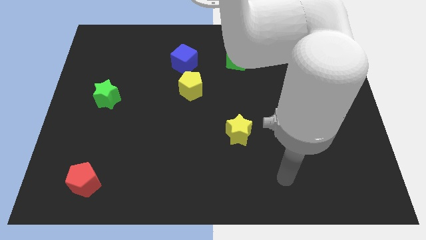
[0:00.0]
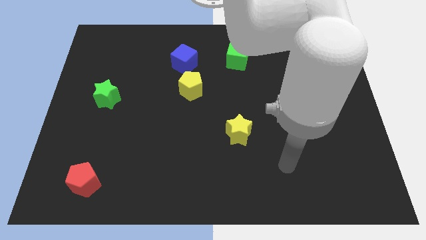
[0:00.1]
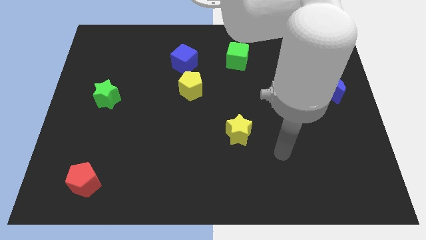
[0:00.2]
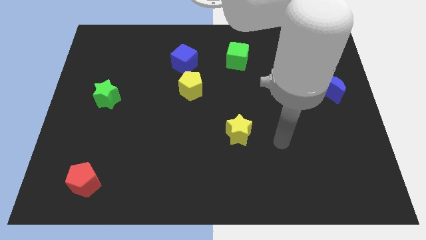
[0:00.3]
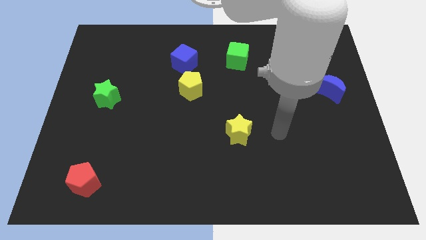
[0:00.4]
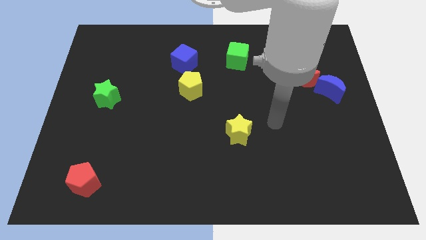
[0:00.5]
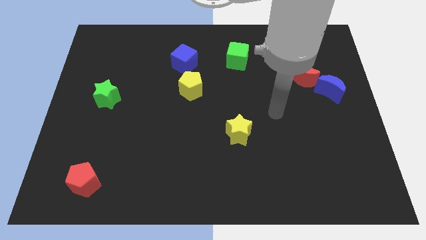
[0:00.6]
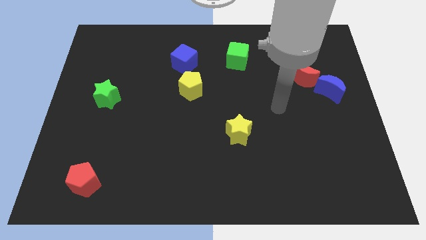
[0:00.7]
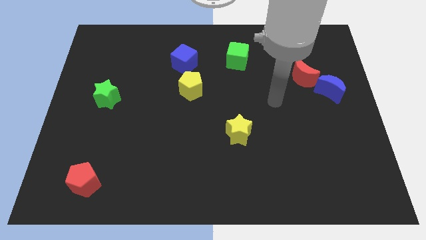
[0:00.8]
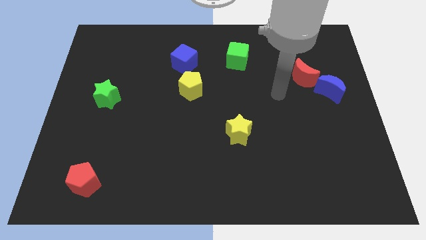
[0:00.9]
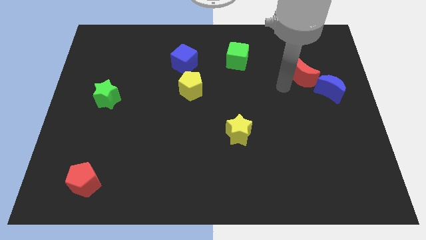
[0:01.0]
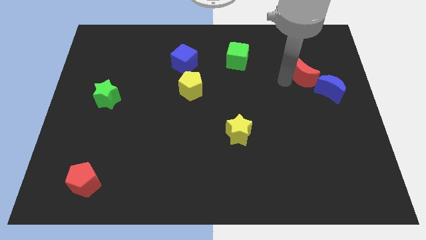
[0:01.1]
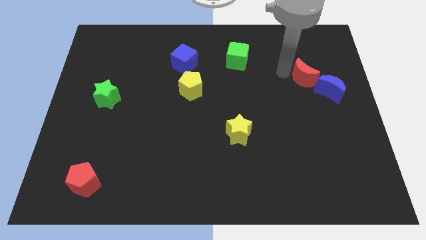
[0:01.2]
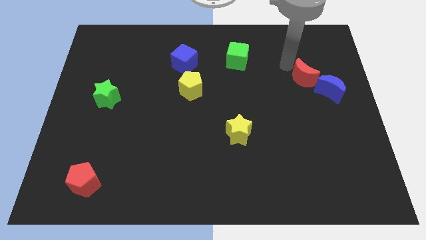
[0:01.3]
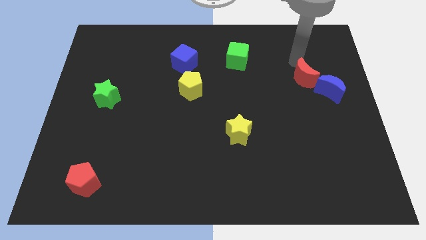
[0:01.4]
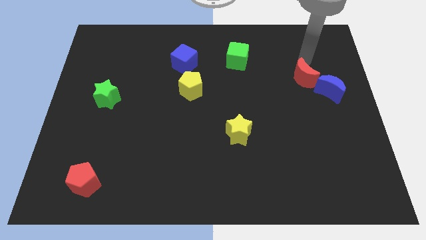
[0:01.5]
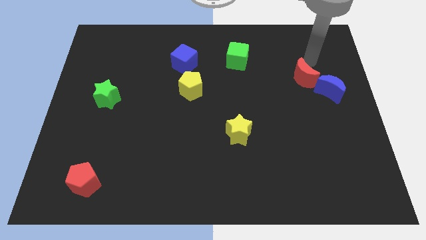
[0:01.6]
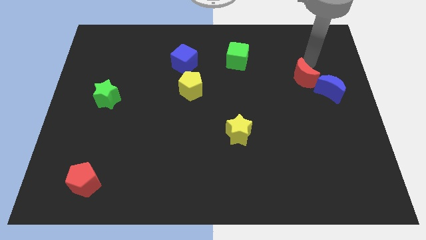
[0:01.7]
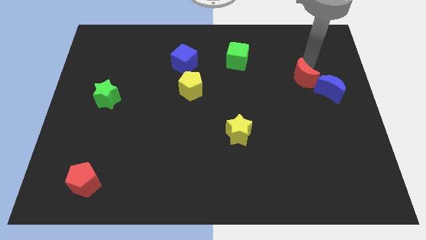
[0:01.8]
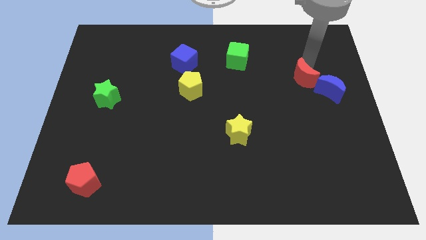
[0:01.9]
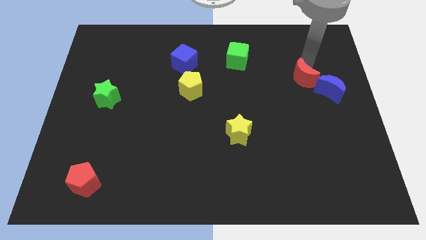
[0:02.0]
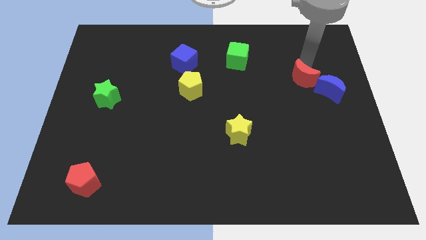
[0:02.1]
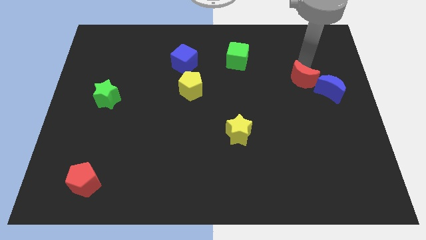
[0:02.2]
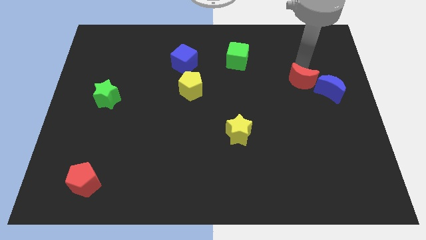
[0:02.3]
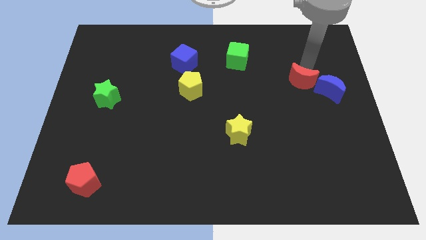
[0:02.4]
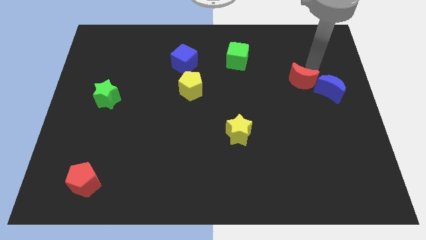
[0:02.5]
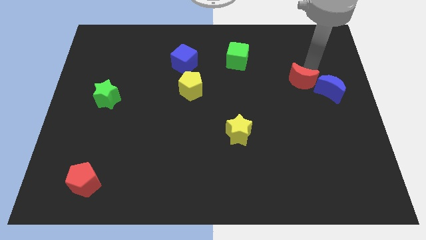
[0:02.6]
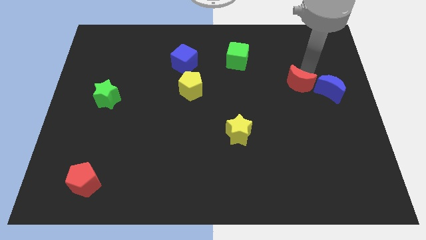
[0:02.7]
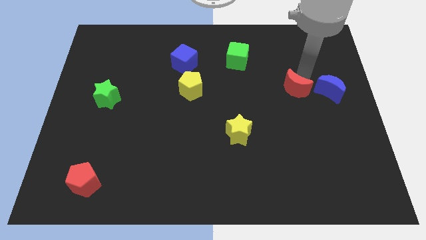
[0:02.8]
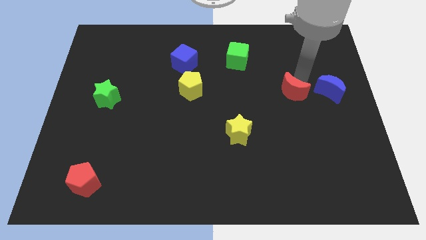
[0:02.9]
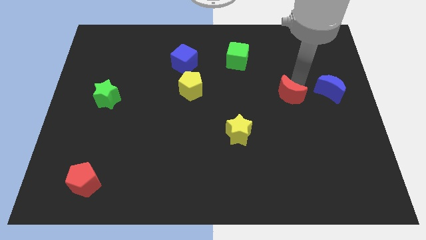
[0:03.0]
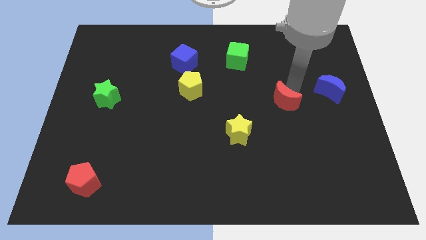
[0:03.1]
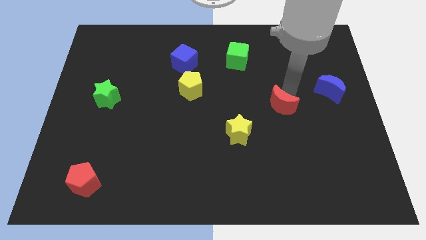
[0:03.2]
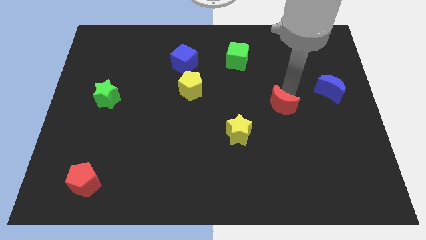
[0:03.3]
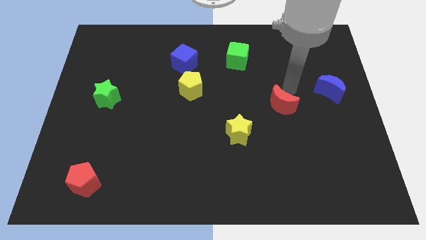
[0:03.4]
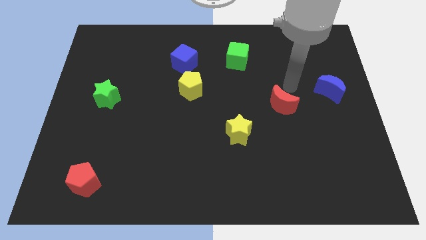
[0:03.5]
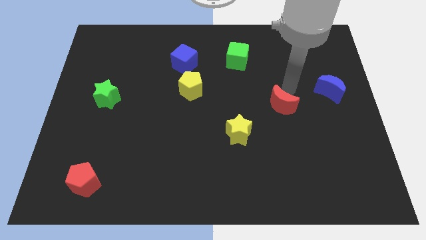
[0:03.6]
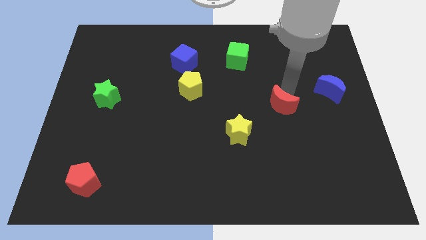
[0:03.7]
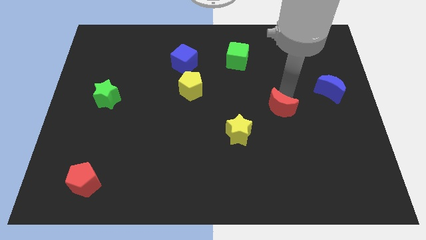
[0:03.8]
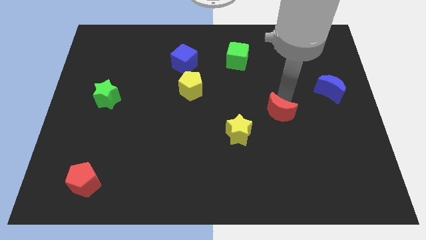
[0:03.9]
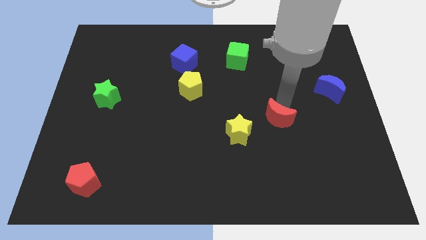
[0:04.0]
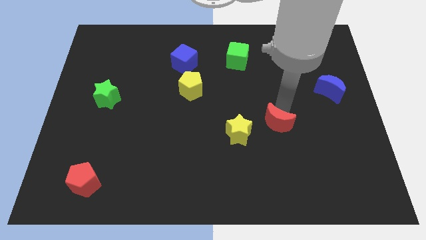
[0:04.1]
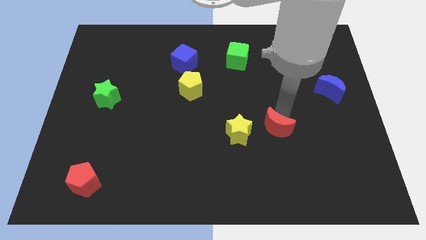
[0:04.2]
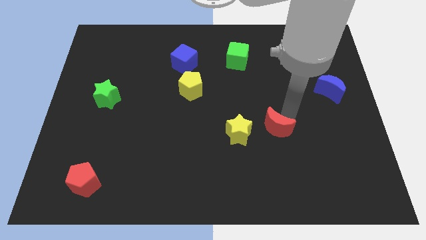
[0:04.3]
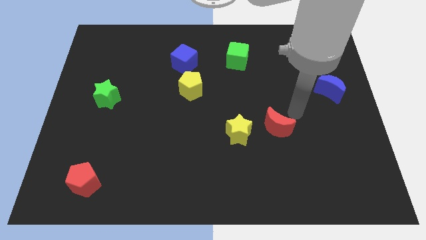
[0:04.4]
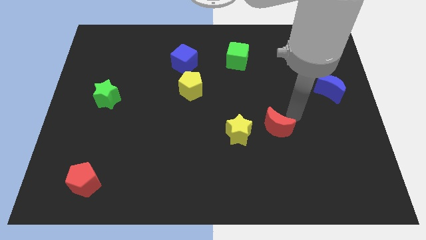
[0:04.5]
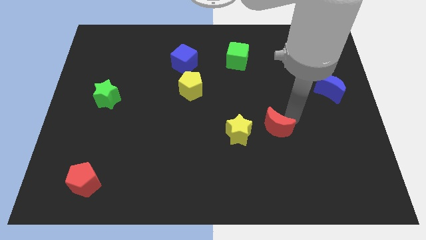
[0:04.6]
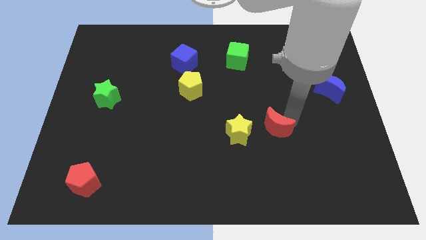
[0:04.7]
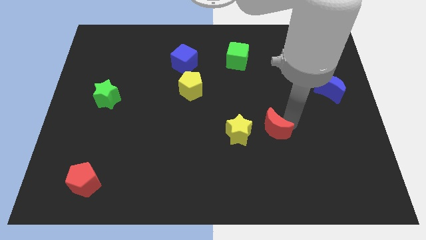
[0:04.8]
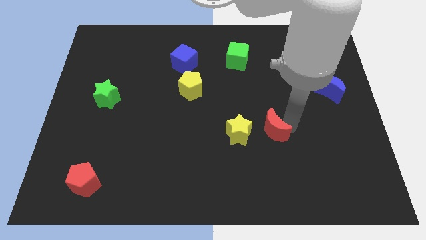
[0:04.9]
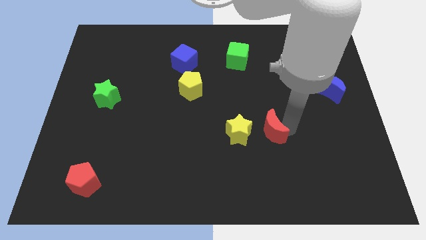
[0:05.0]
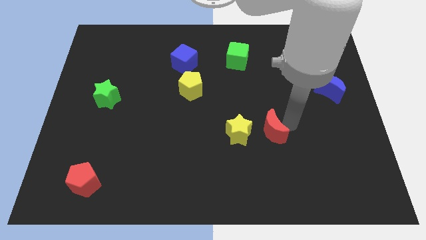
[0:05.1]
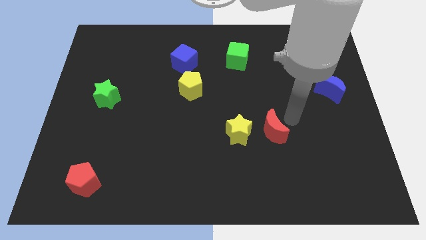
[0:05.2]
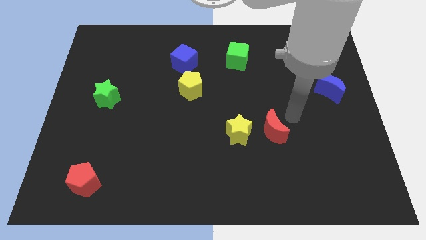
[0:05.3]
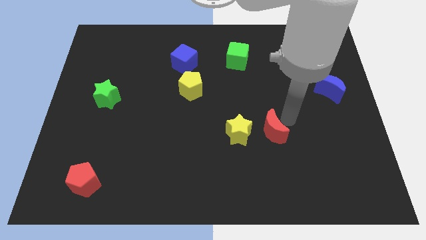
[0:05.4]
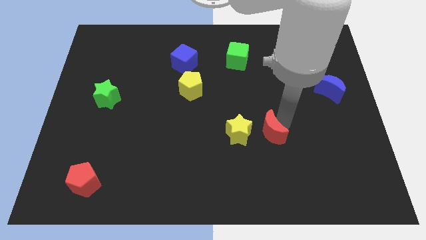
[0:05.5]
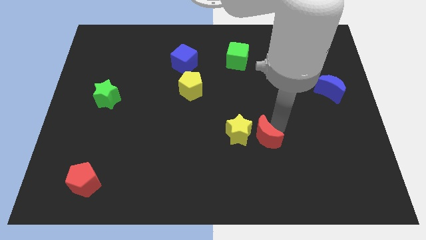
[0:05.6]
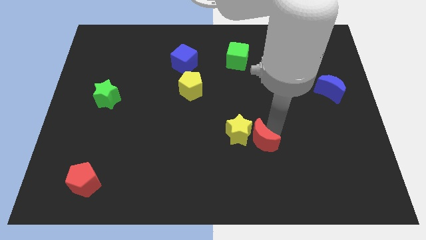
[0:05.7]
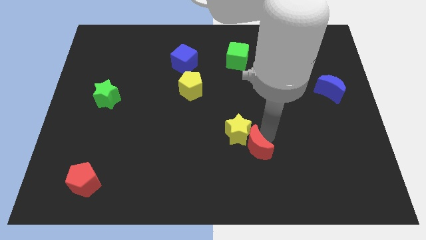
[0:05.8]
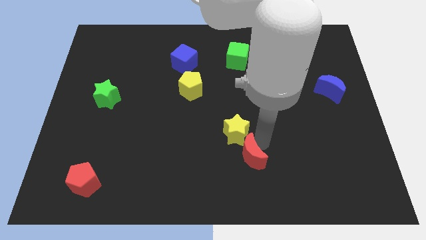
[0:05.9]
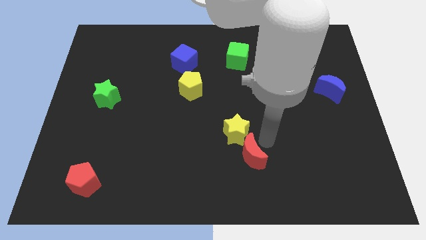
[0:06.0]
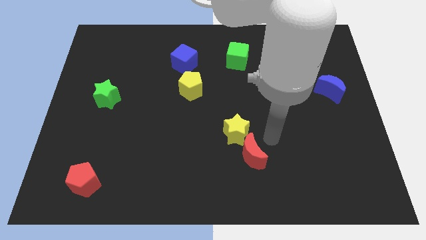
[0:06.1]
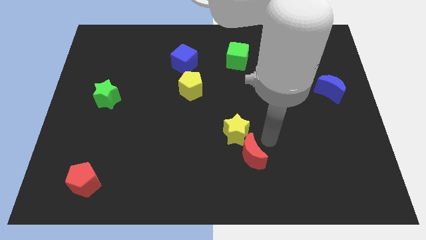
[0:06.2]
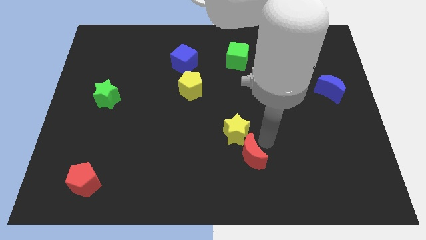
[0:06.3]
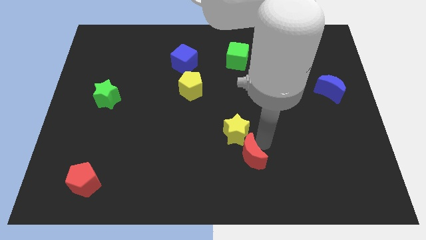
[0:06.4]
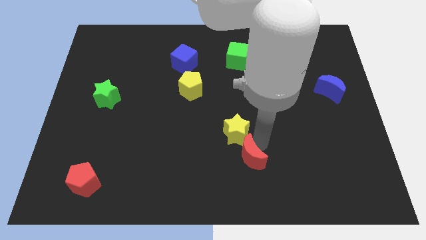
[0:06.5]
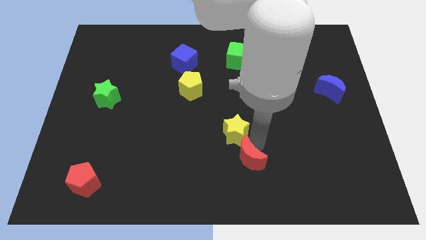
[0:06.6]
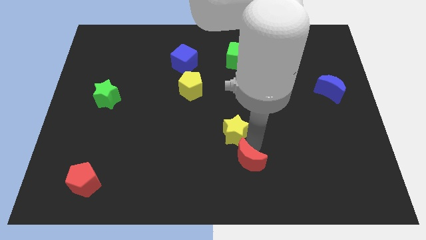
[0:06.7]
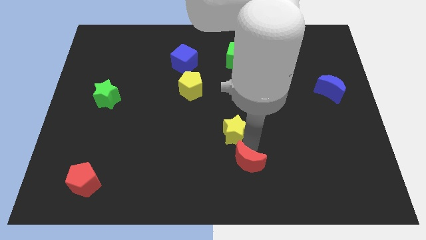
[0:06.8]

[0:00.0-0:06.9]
put the red moon to the bottom side
